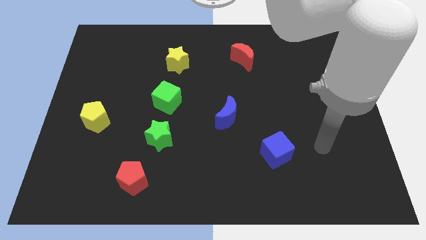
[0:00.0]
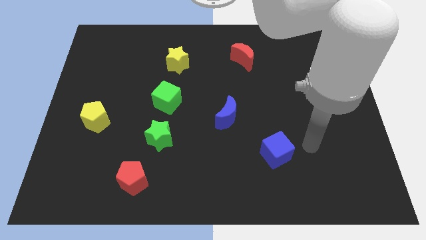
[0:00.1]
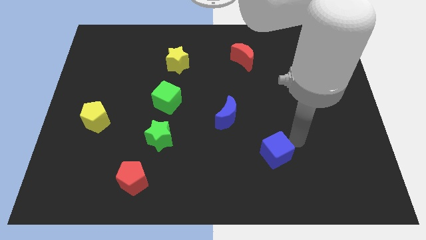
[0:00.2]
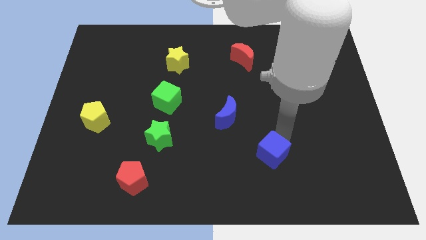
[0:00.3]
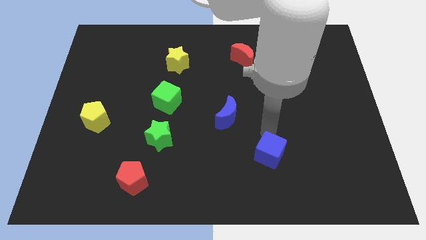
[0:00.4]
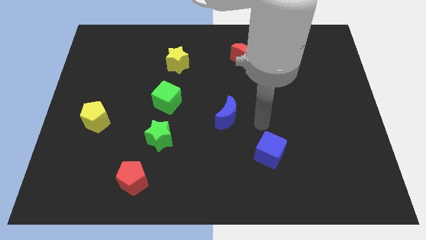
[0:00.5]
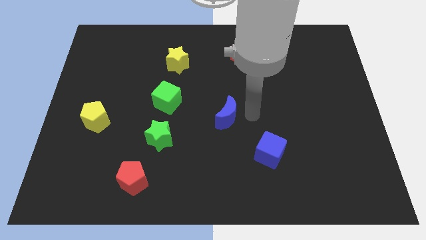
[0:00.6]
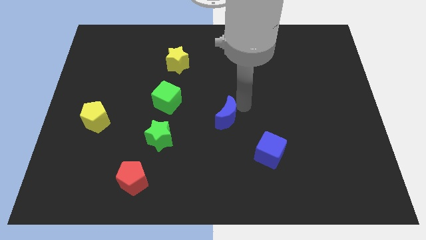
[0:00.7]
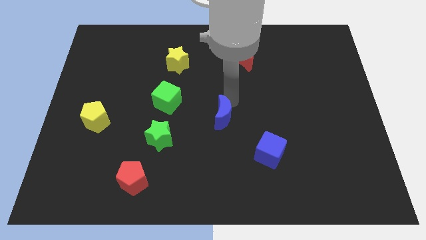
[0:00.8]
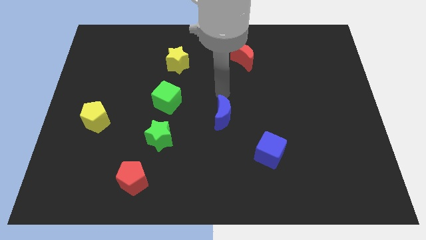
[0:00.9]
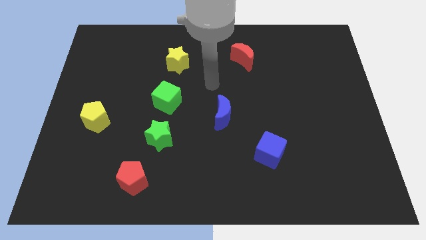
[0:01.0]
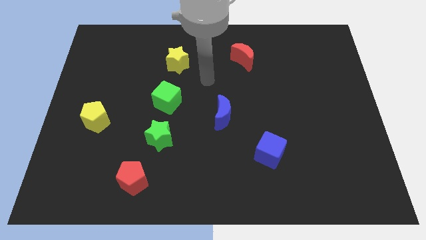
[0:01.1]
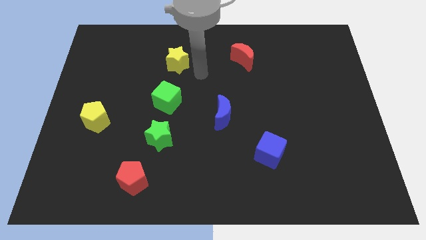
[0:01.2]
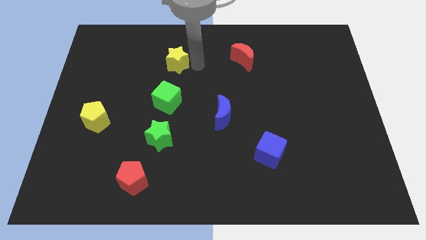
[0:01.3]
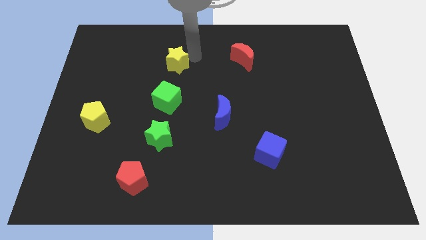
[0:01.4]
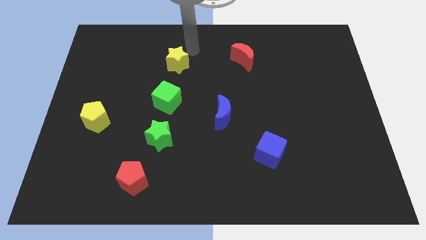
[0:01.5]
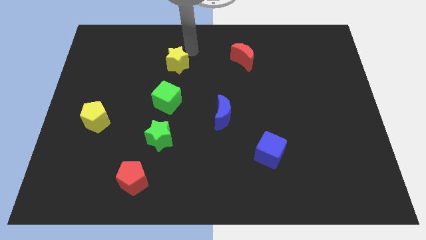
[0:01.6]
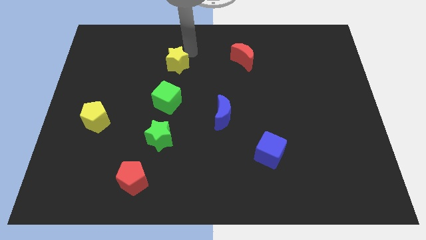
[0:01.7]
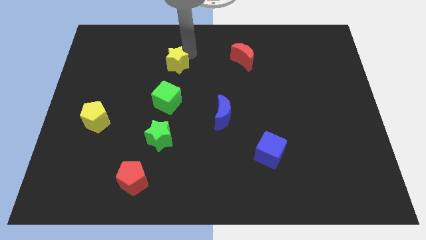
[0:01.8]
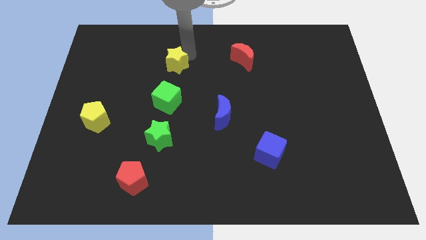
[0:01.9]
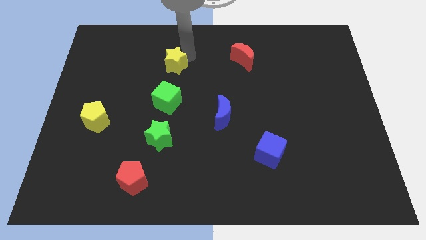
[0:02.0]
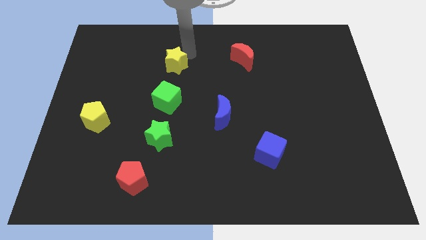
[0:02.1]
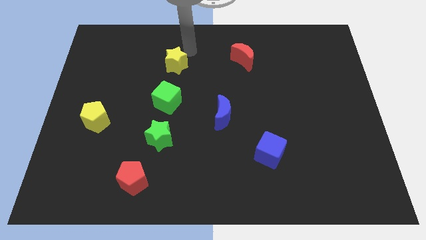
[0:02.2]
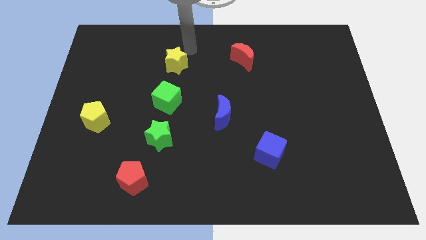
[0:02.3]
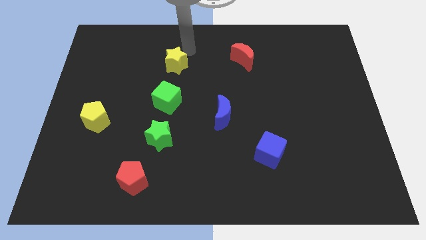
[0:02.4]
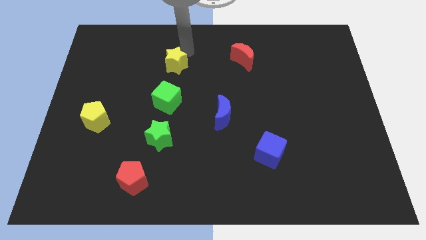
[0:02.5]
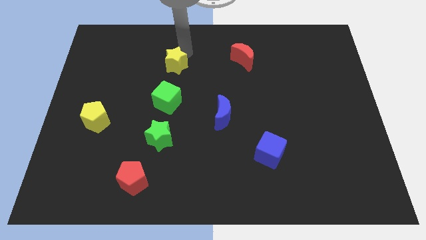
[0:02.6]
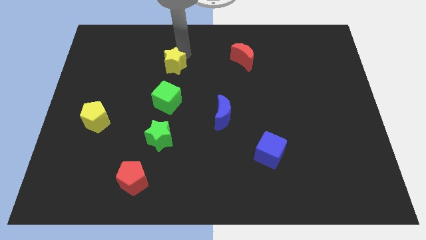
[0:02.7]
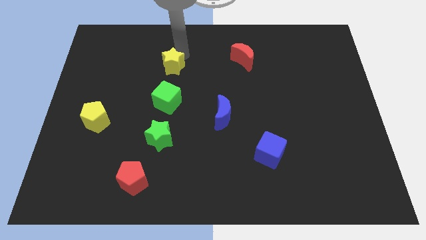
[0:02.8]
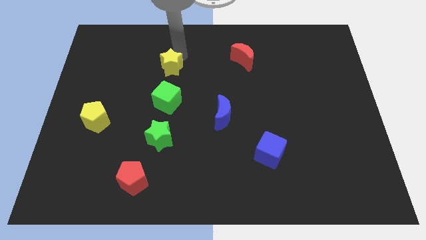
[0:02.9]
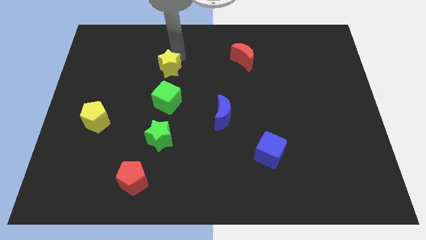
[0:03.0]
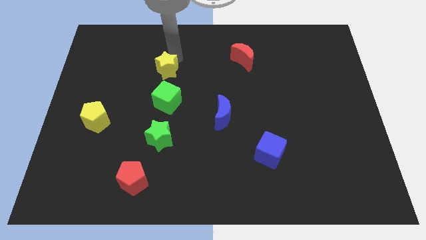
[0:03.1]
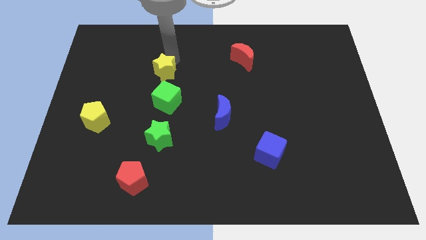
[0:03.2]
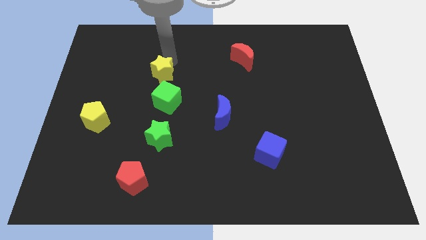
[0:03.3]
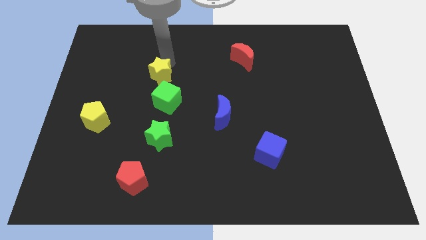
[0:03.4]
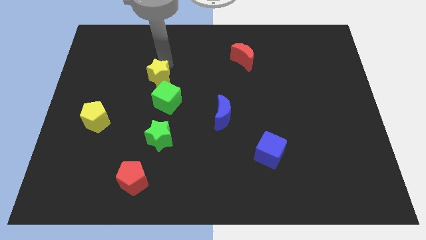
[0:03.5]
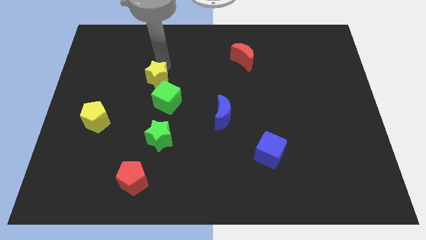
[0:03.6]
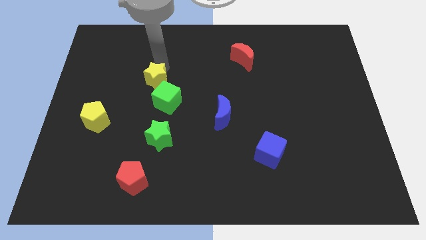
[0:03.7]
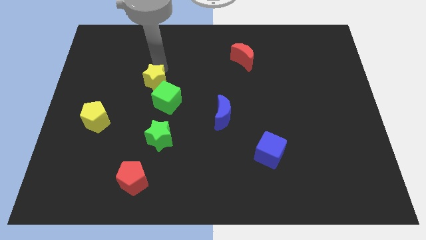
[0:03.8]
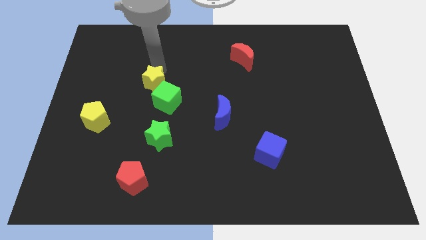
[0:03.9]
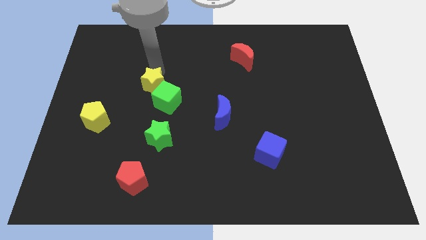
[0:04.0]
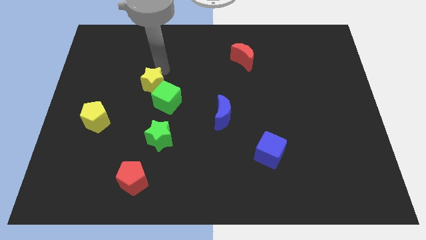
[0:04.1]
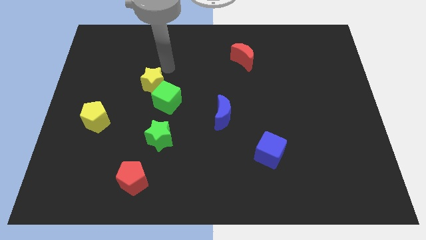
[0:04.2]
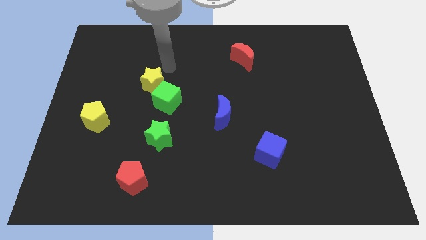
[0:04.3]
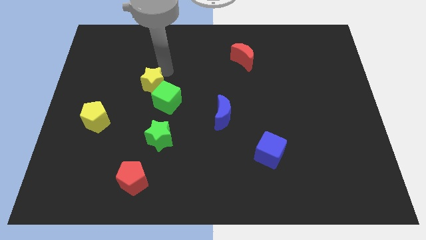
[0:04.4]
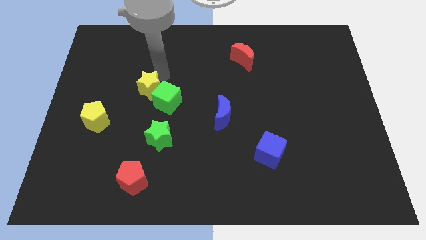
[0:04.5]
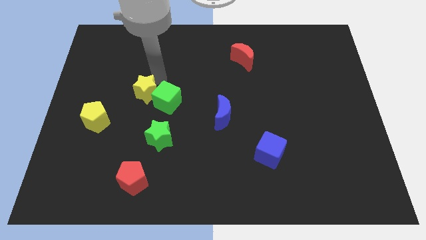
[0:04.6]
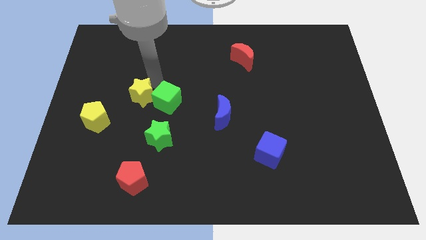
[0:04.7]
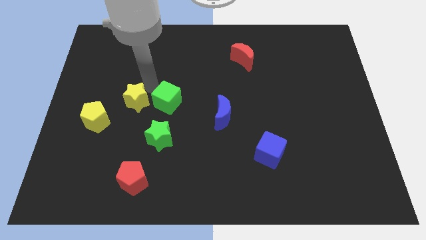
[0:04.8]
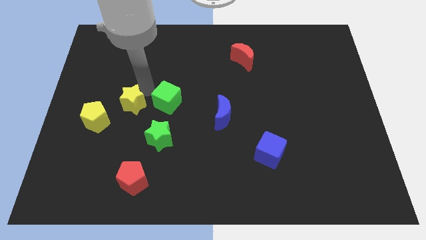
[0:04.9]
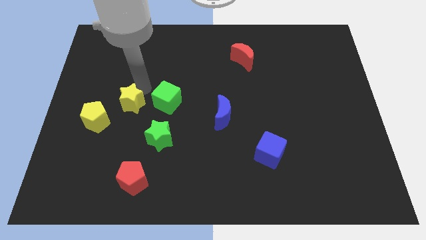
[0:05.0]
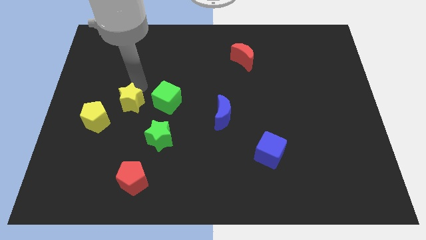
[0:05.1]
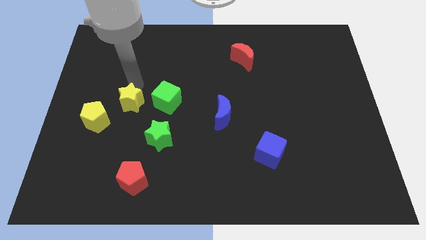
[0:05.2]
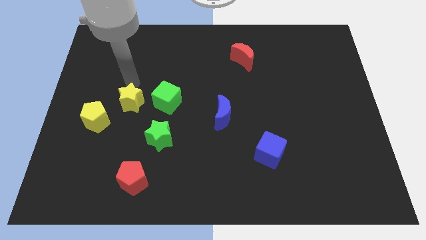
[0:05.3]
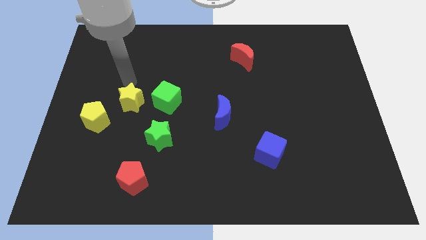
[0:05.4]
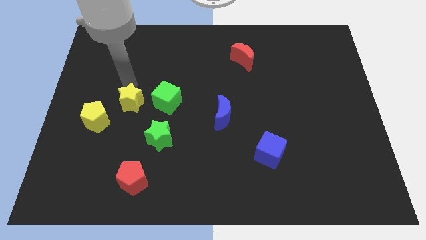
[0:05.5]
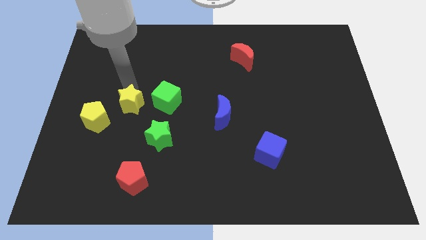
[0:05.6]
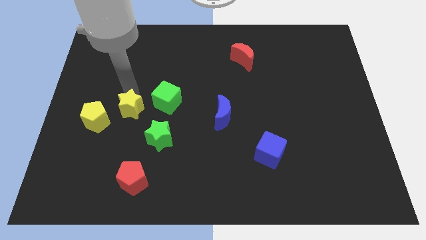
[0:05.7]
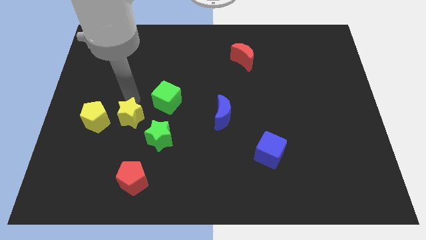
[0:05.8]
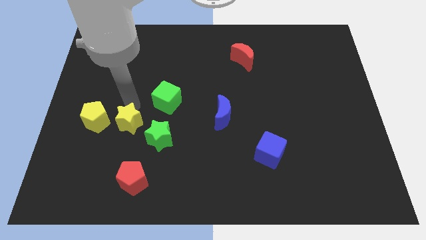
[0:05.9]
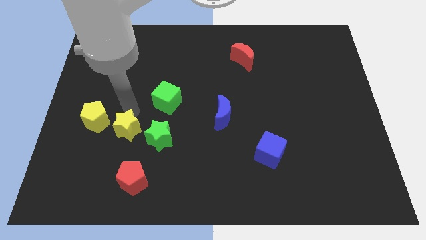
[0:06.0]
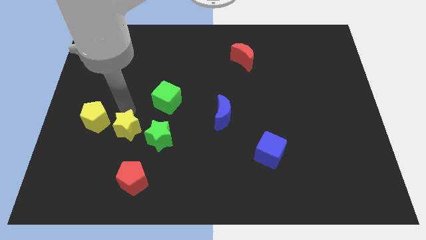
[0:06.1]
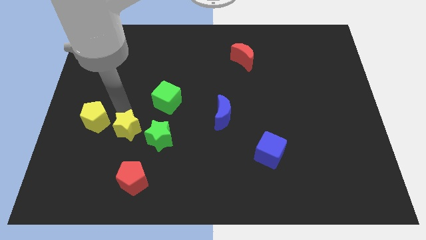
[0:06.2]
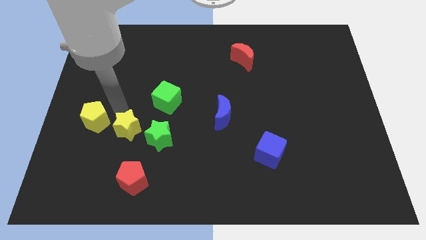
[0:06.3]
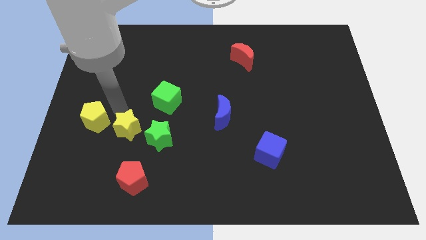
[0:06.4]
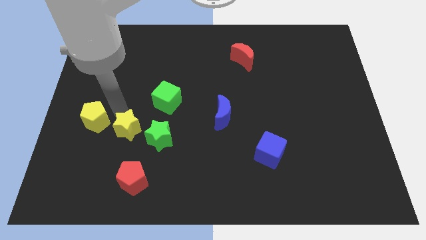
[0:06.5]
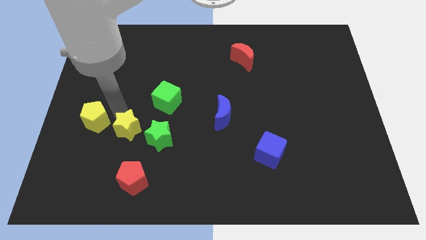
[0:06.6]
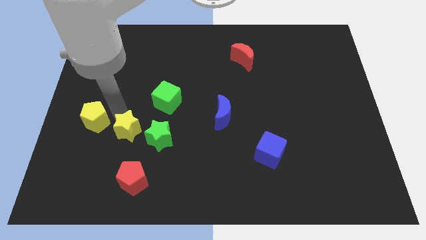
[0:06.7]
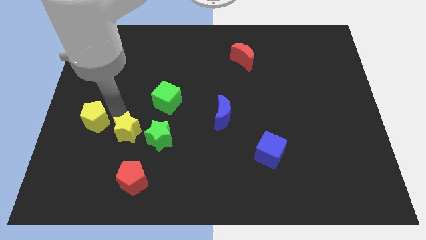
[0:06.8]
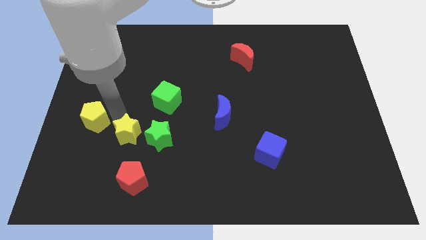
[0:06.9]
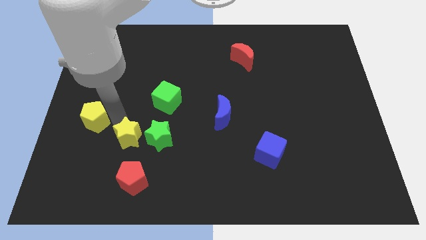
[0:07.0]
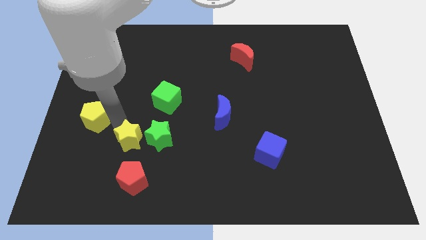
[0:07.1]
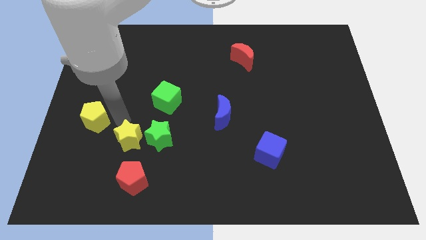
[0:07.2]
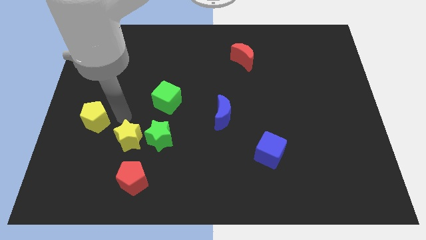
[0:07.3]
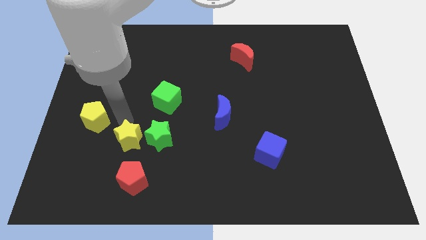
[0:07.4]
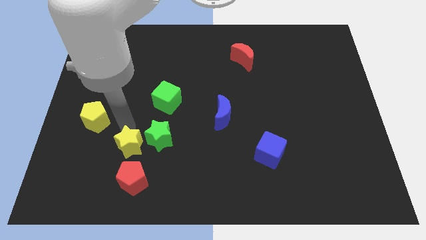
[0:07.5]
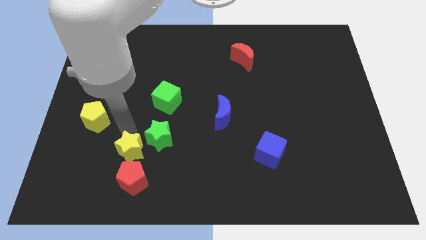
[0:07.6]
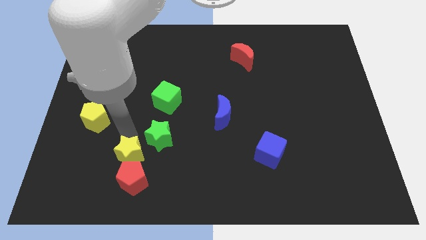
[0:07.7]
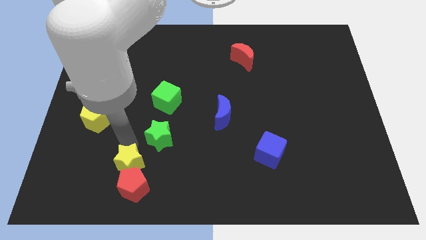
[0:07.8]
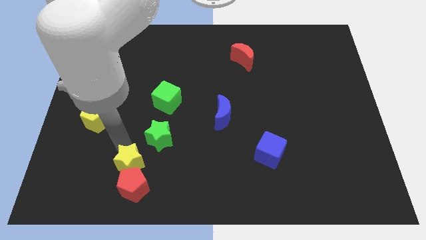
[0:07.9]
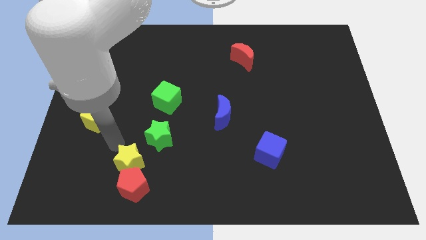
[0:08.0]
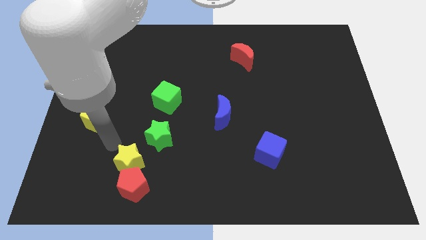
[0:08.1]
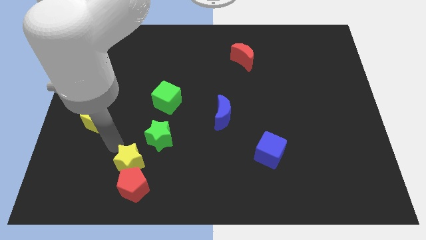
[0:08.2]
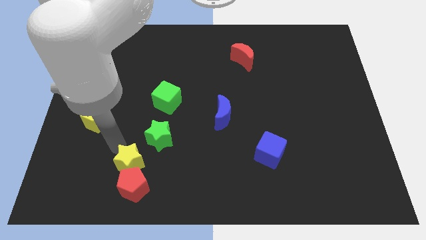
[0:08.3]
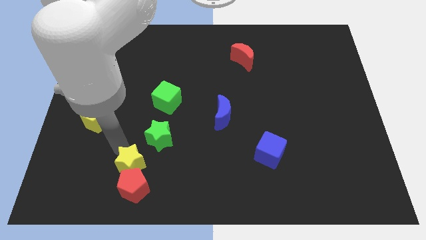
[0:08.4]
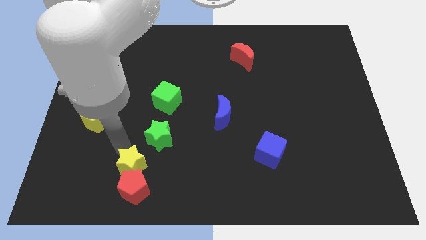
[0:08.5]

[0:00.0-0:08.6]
slide the yellow star to the bottom side of the green star
